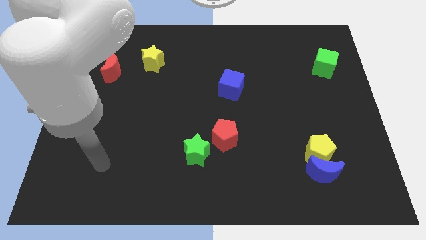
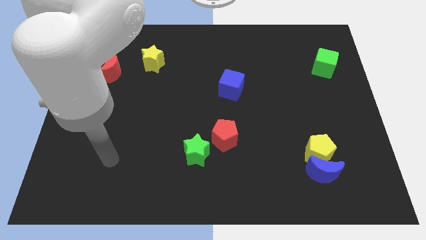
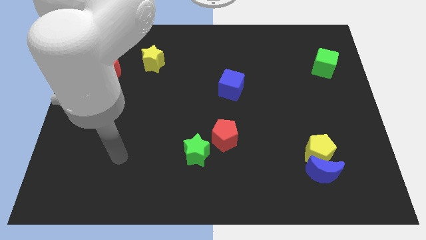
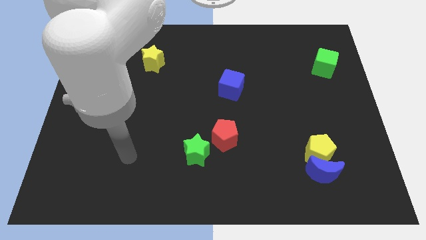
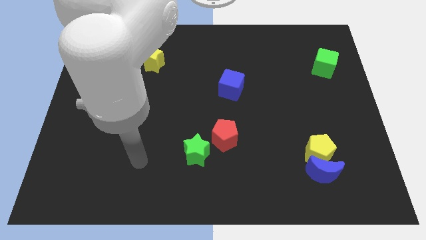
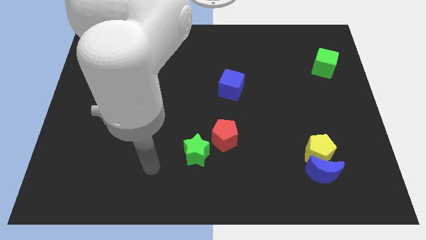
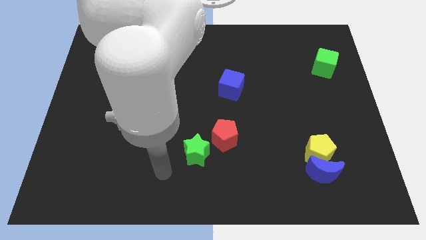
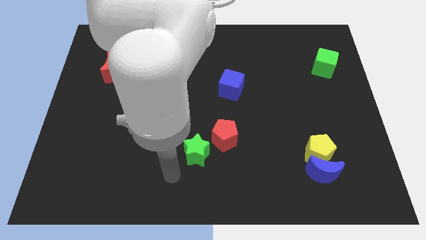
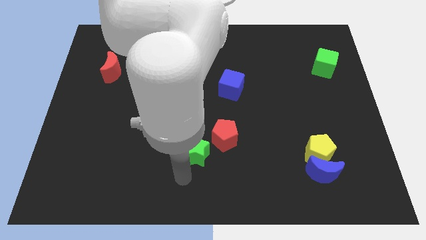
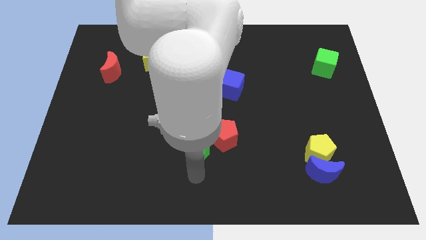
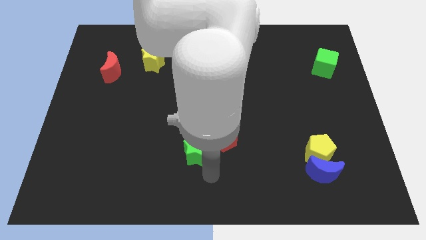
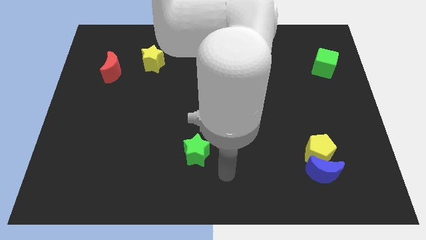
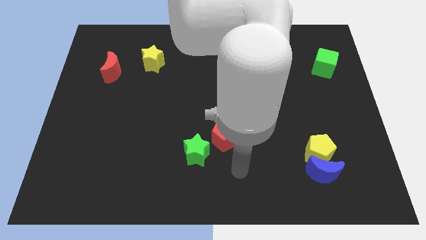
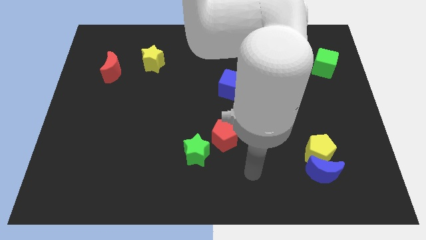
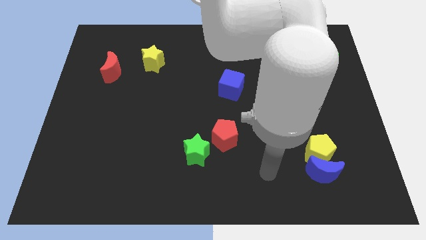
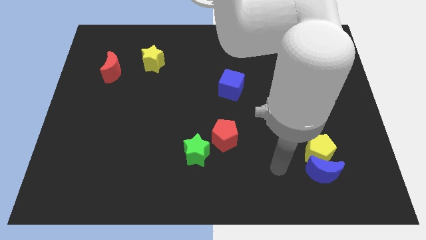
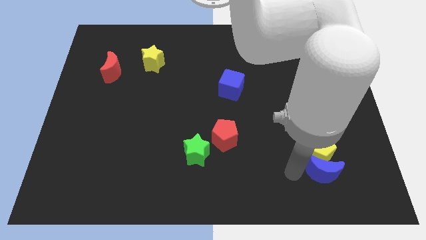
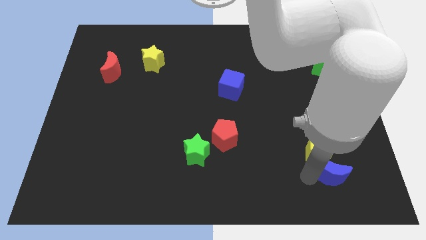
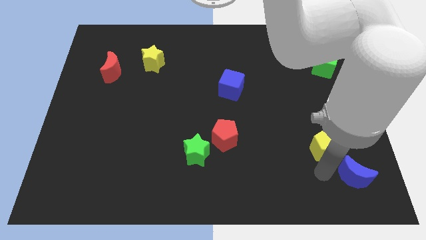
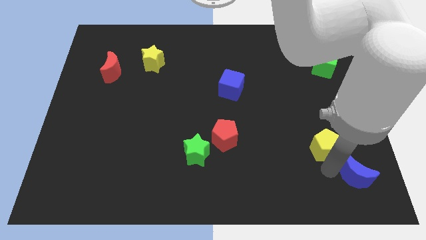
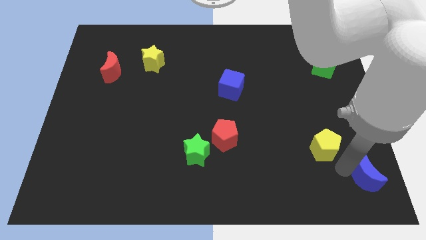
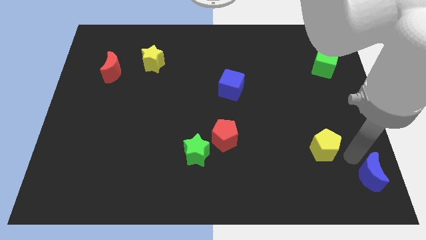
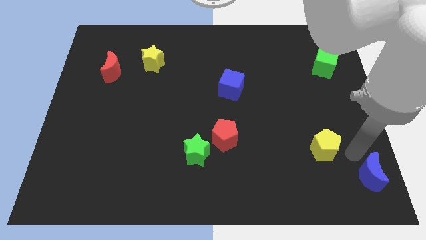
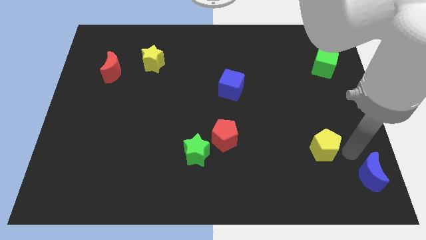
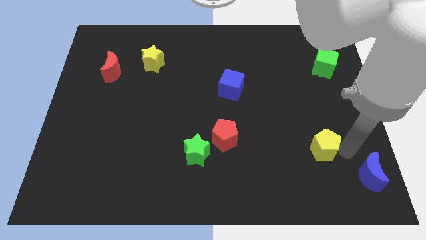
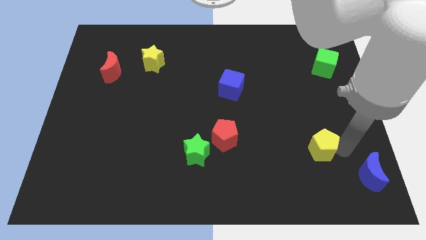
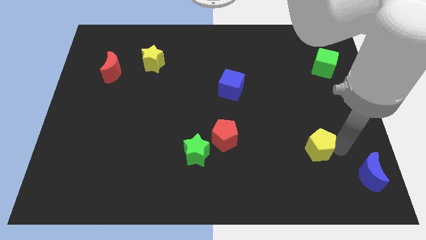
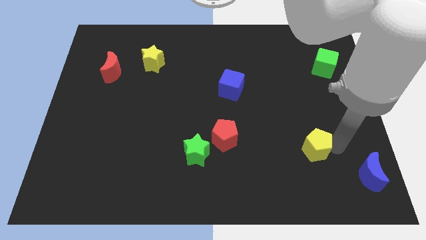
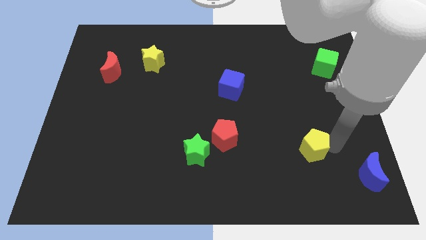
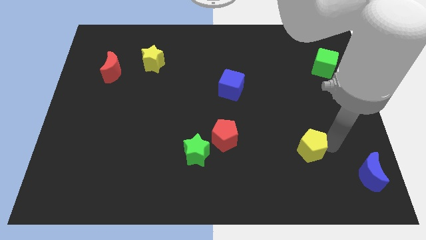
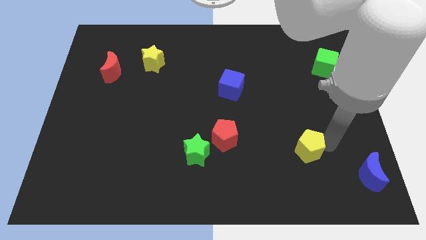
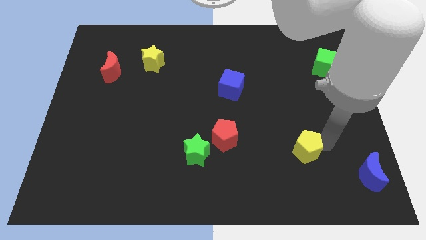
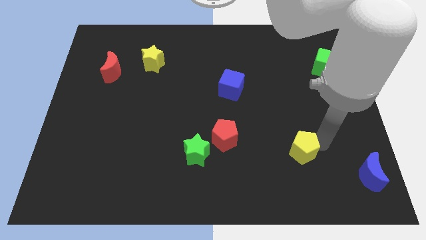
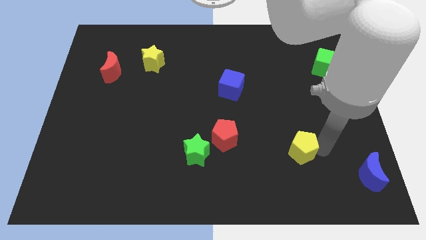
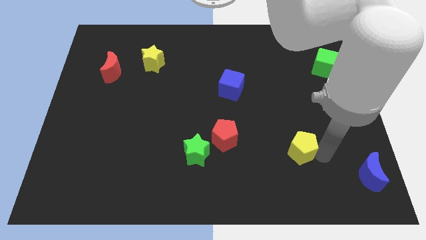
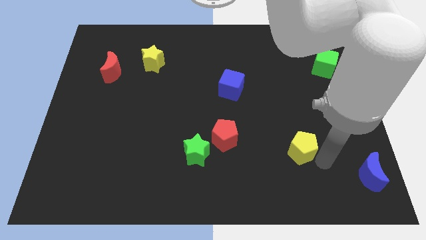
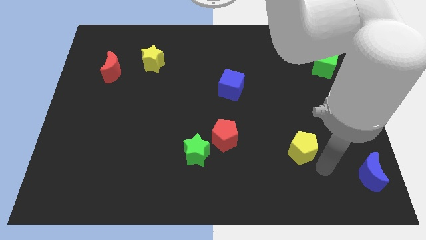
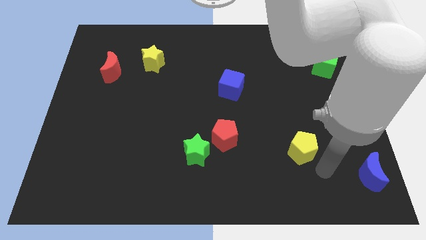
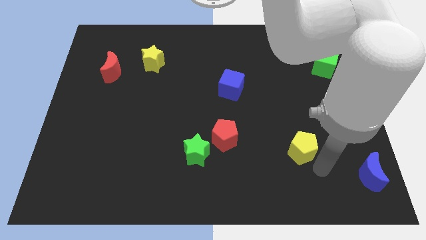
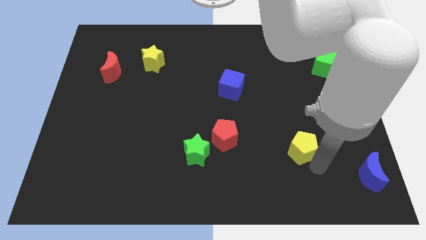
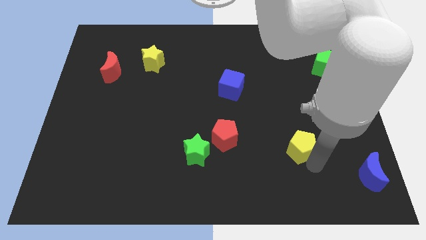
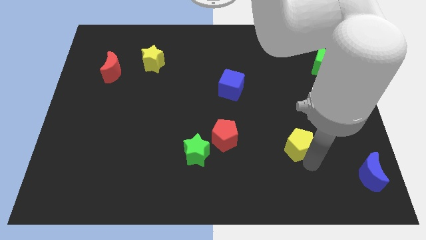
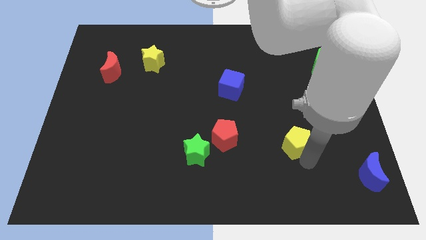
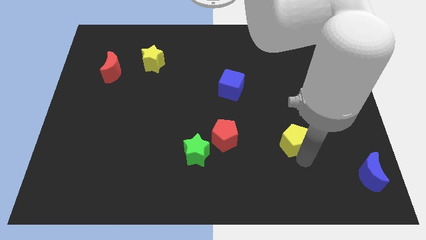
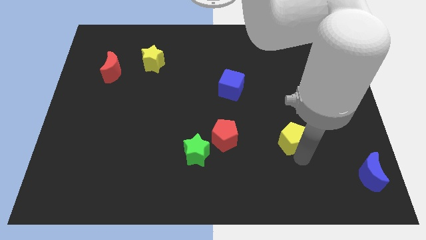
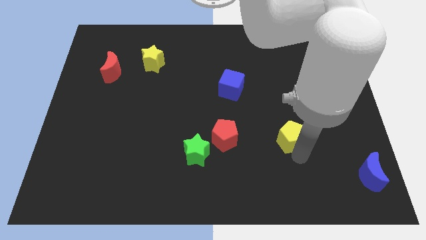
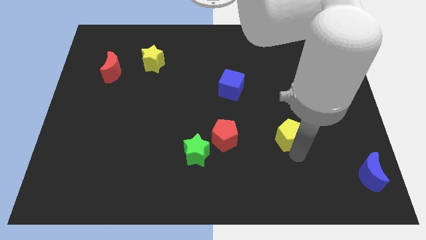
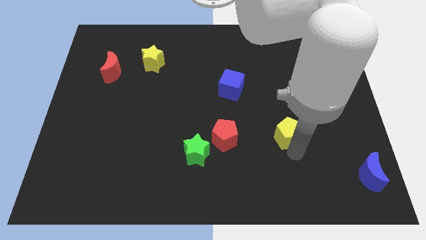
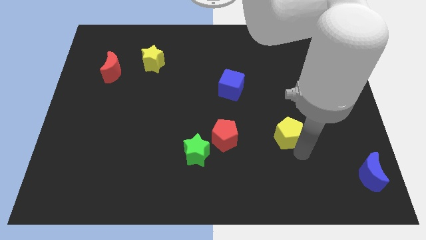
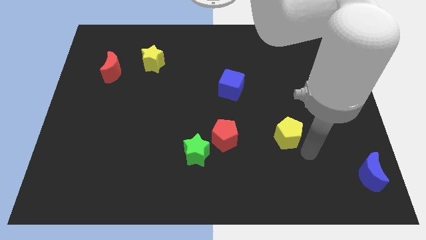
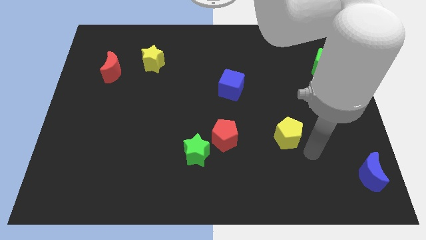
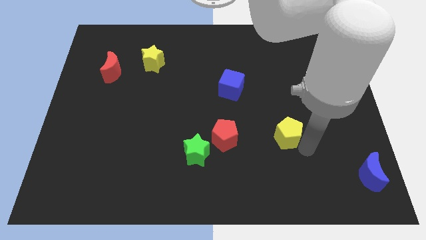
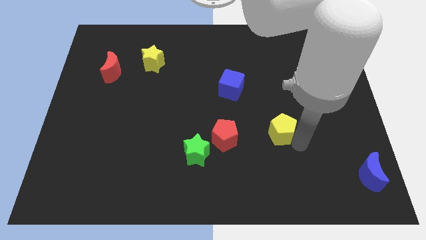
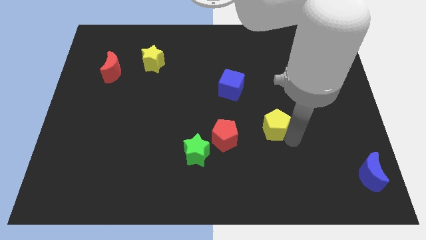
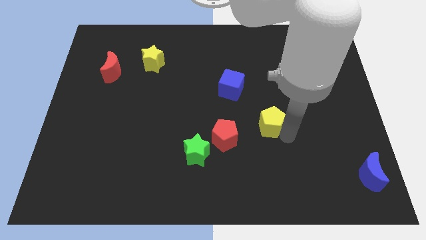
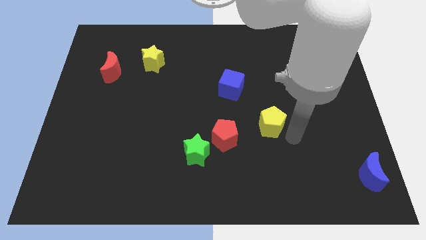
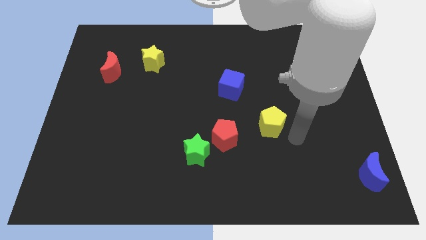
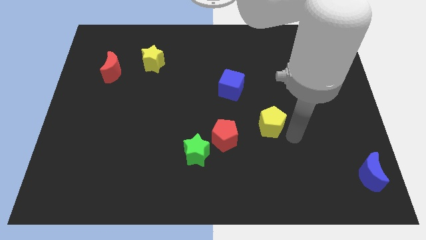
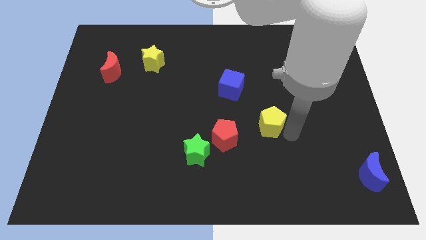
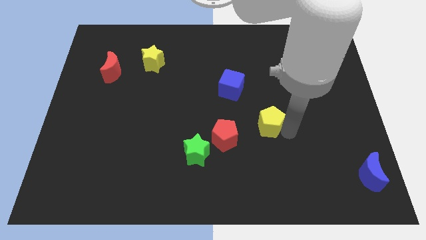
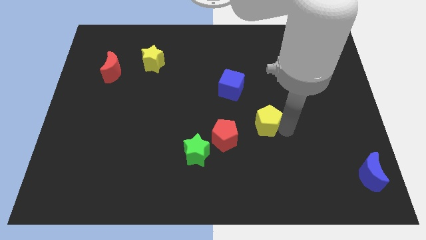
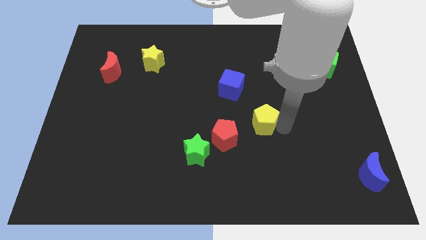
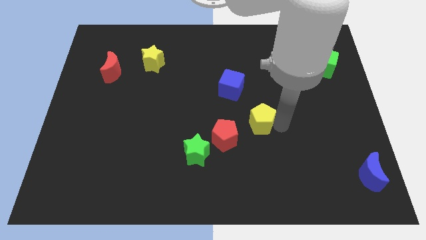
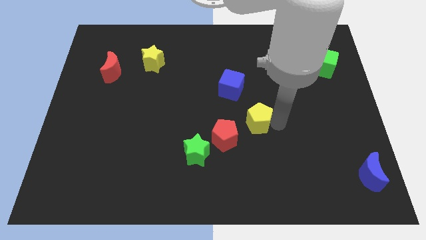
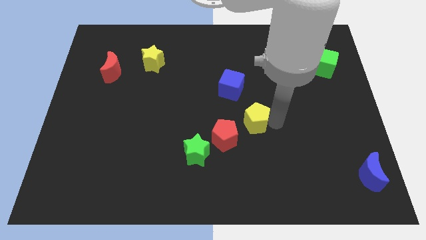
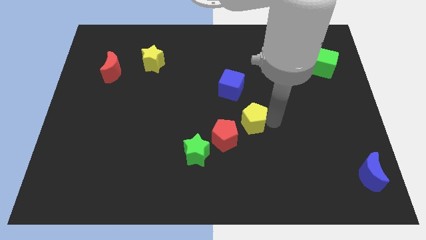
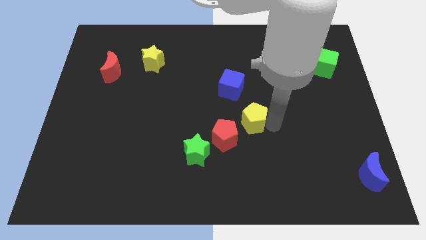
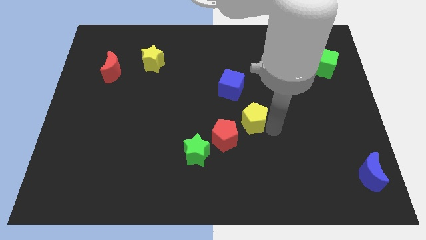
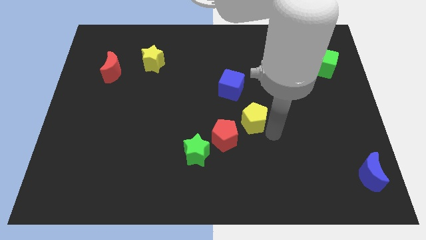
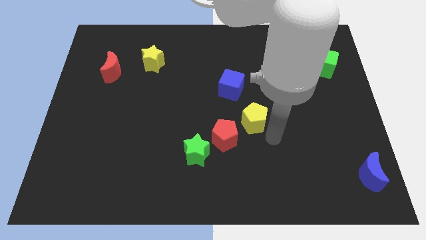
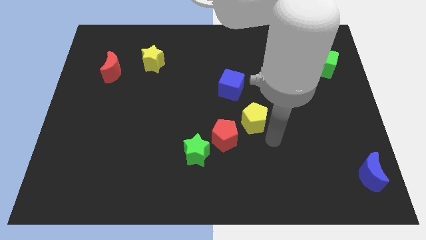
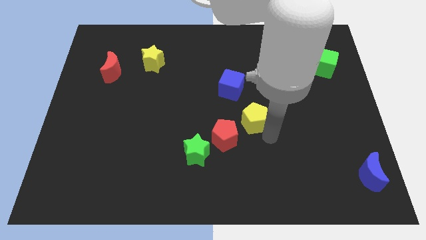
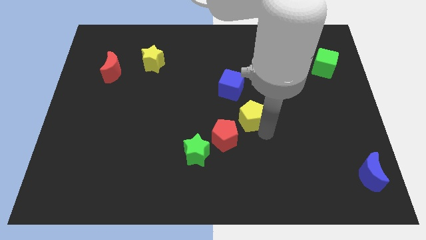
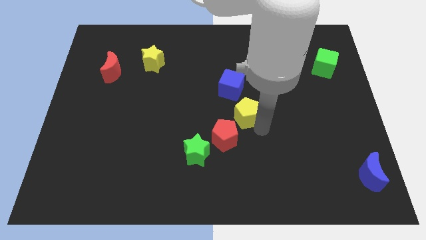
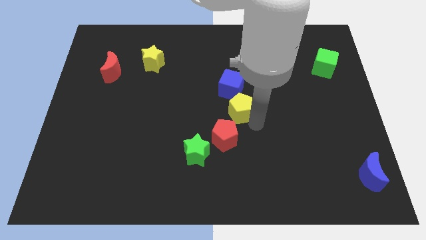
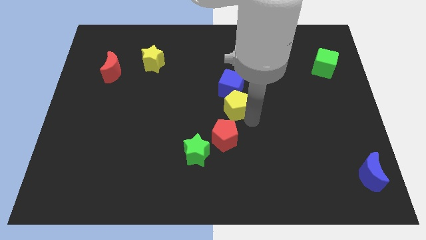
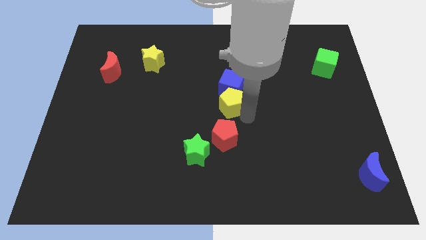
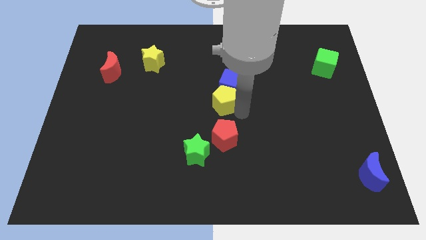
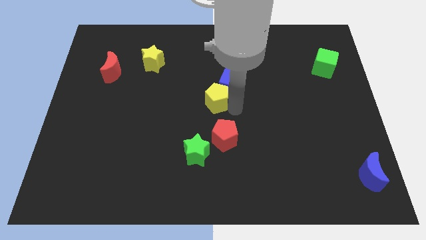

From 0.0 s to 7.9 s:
push the yellow pentagon to the left of the blue cube
